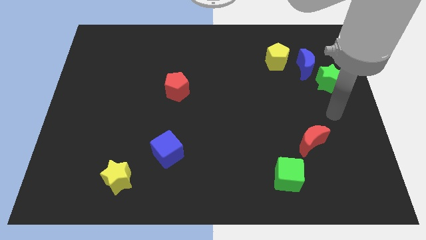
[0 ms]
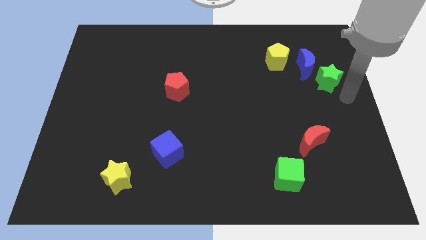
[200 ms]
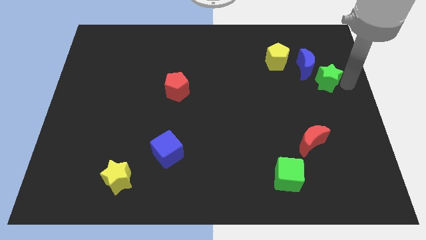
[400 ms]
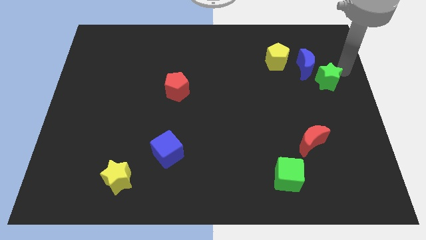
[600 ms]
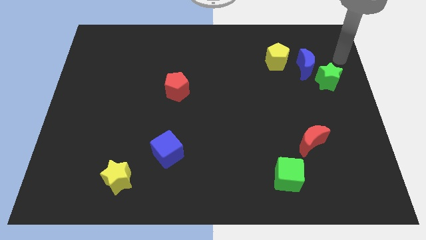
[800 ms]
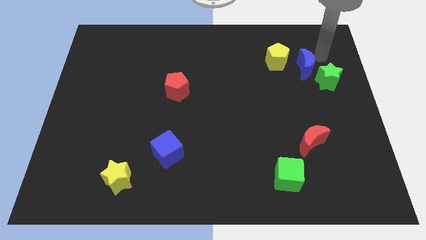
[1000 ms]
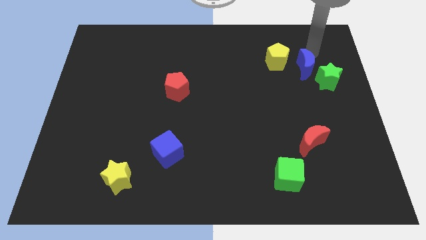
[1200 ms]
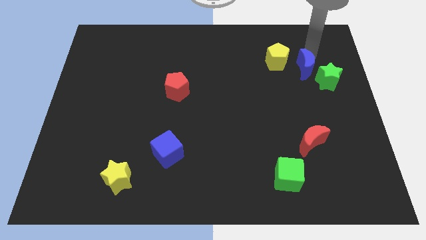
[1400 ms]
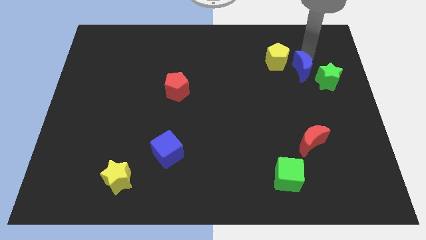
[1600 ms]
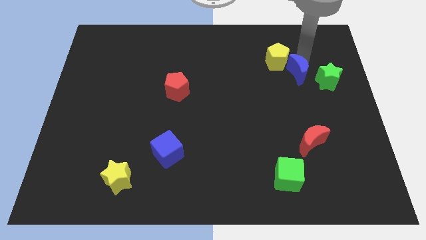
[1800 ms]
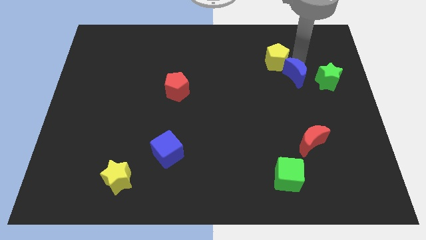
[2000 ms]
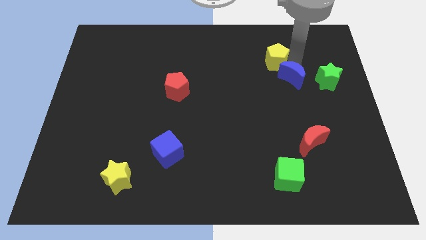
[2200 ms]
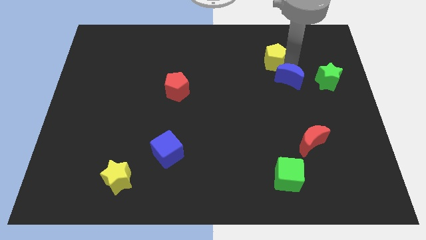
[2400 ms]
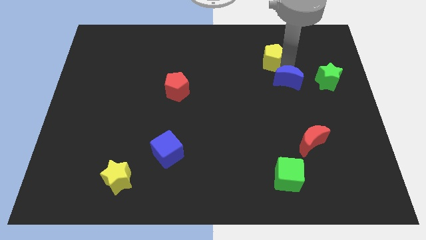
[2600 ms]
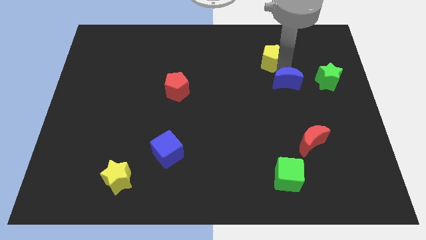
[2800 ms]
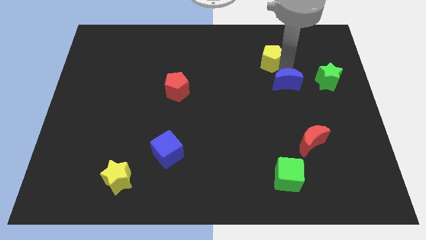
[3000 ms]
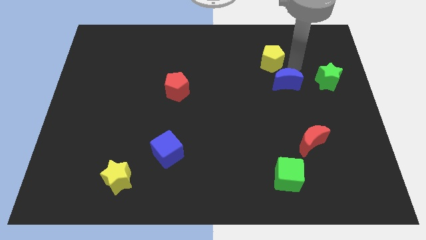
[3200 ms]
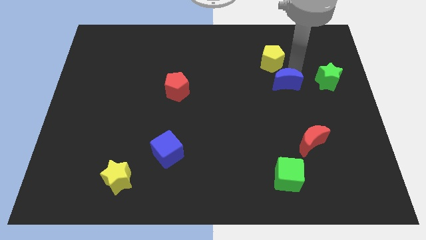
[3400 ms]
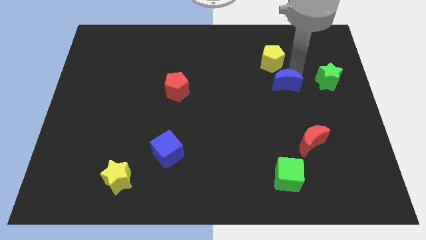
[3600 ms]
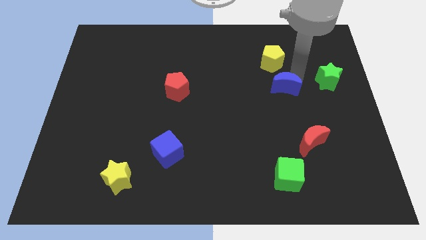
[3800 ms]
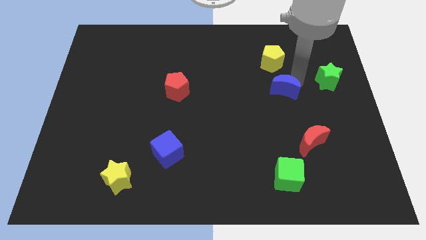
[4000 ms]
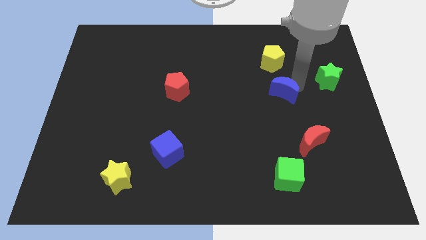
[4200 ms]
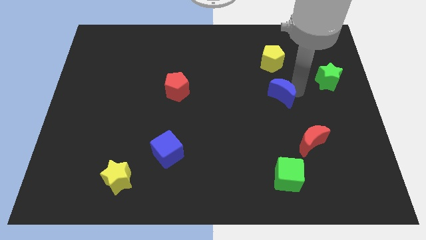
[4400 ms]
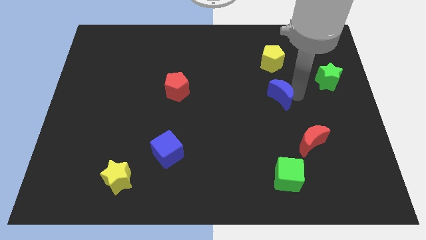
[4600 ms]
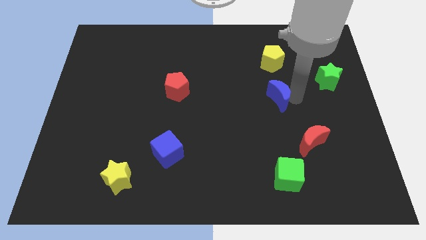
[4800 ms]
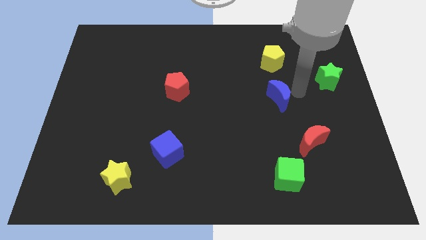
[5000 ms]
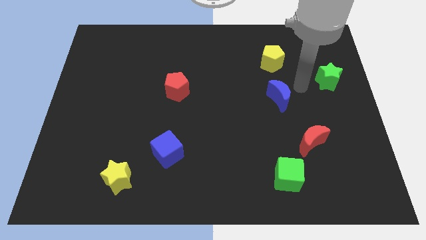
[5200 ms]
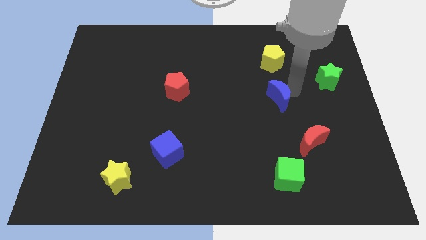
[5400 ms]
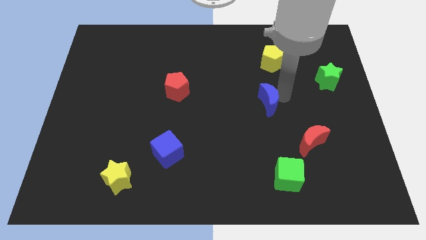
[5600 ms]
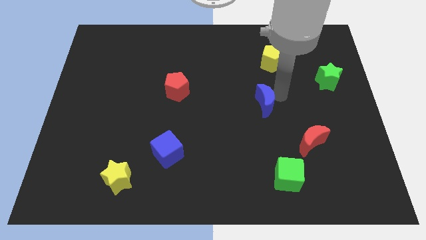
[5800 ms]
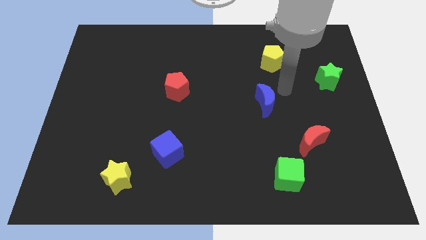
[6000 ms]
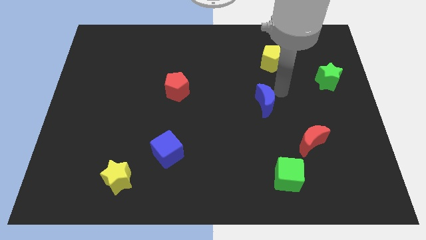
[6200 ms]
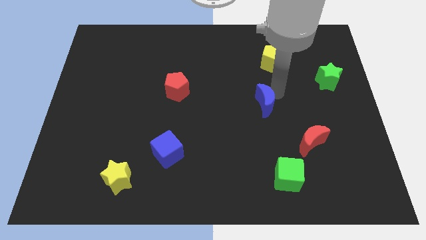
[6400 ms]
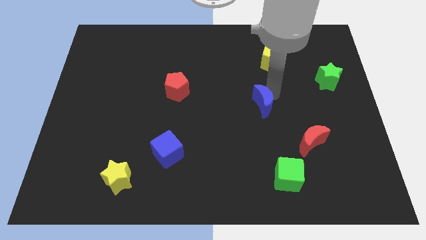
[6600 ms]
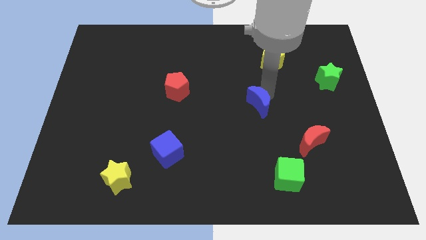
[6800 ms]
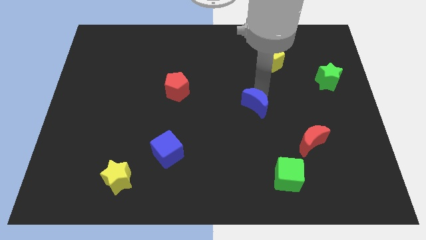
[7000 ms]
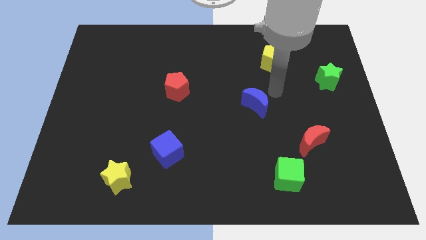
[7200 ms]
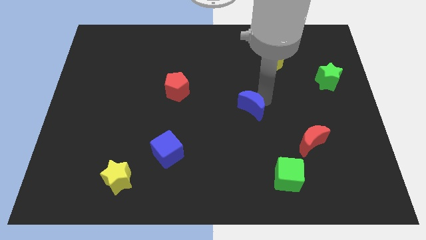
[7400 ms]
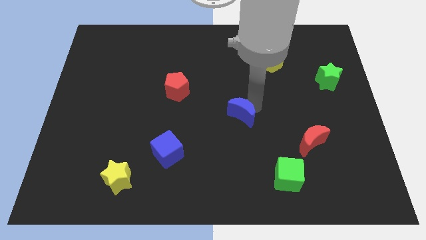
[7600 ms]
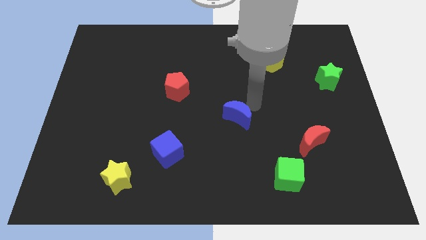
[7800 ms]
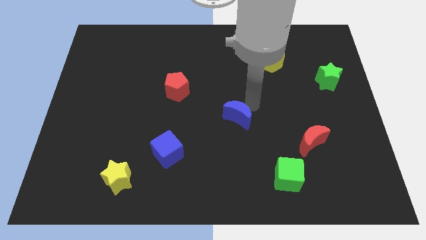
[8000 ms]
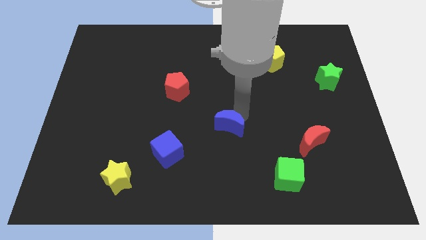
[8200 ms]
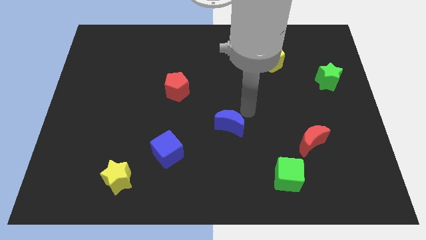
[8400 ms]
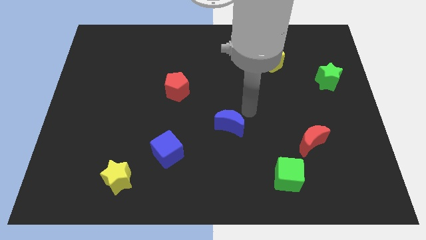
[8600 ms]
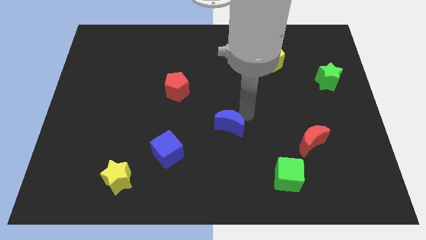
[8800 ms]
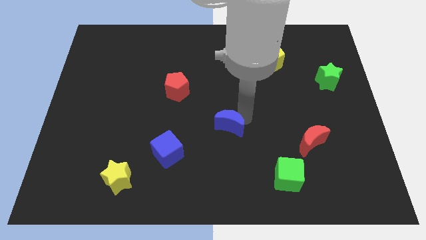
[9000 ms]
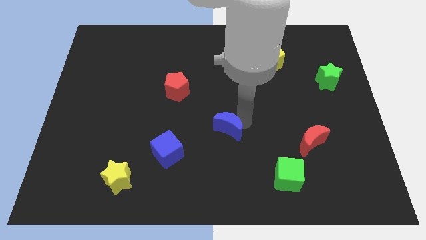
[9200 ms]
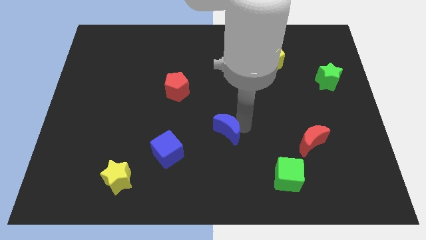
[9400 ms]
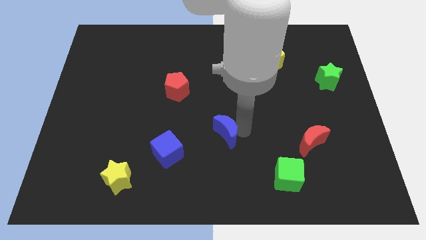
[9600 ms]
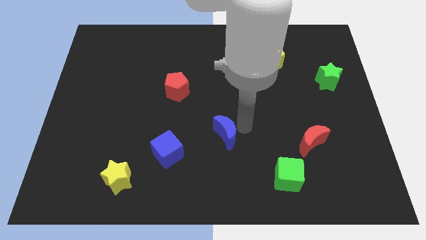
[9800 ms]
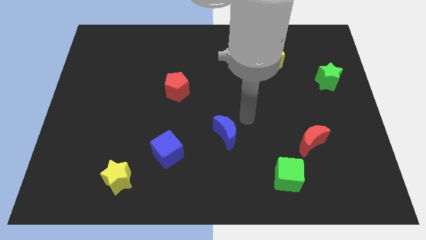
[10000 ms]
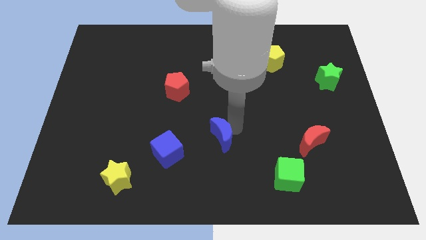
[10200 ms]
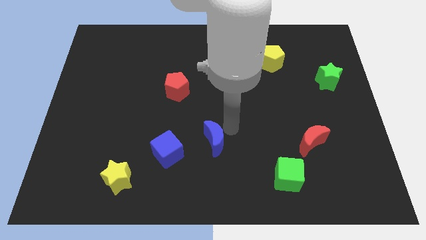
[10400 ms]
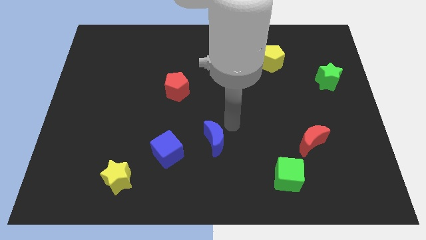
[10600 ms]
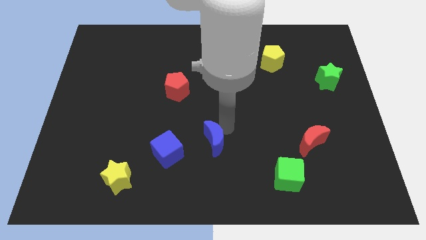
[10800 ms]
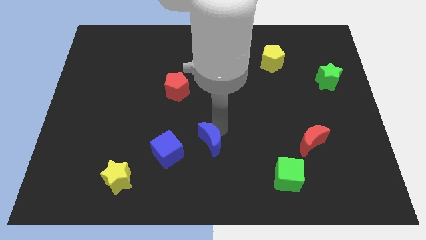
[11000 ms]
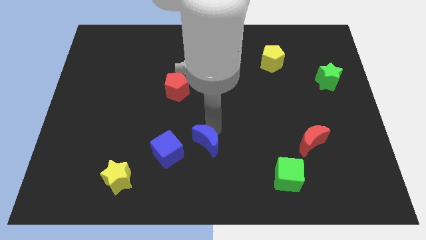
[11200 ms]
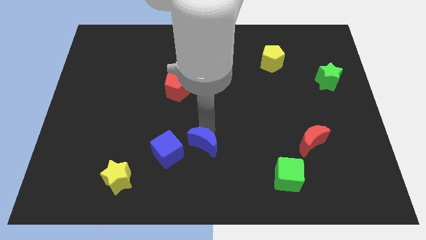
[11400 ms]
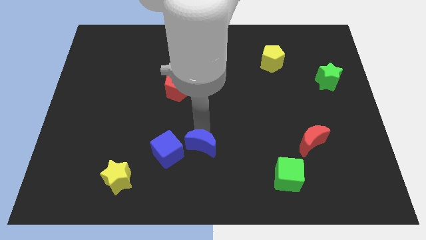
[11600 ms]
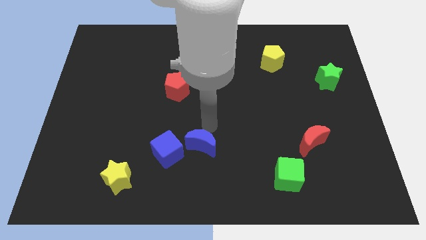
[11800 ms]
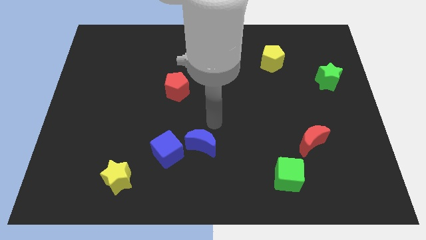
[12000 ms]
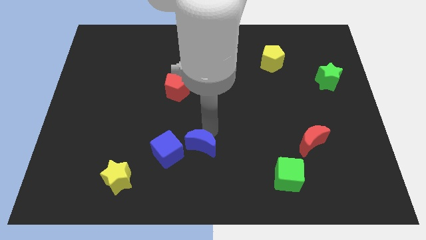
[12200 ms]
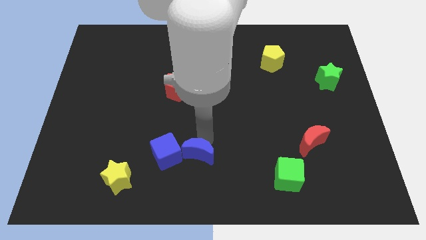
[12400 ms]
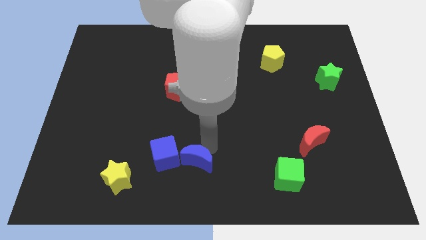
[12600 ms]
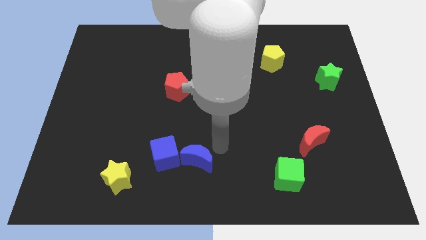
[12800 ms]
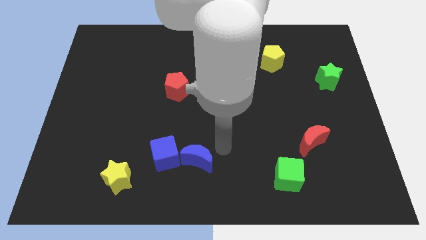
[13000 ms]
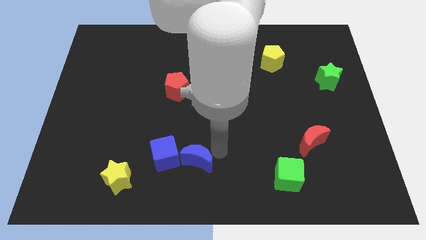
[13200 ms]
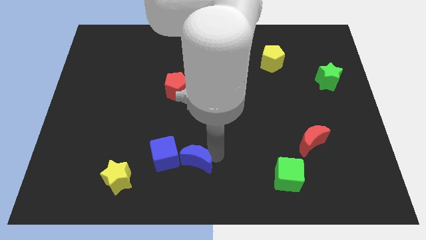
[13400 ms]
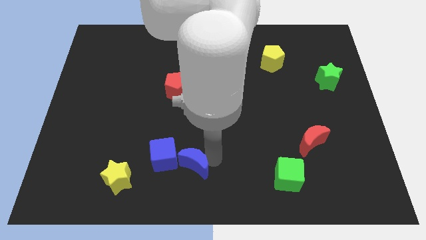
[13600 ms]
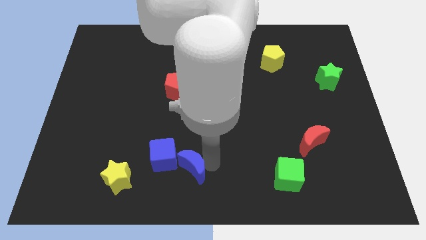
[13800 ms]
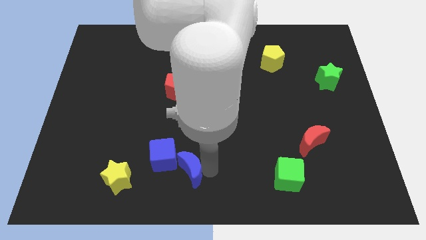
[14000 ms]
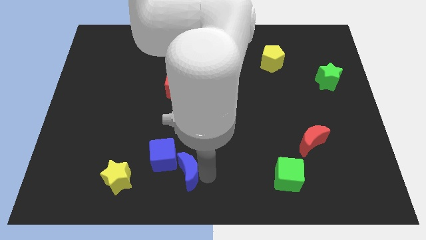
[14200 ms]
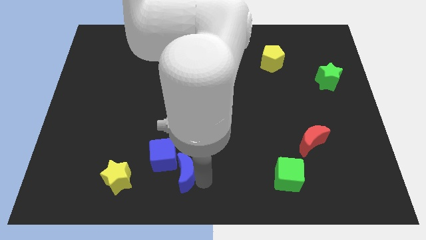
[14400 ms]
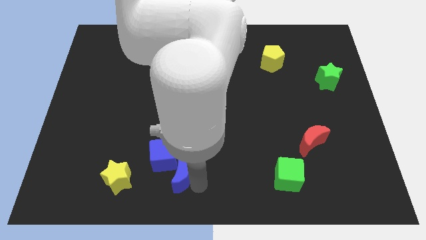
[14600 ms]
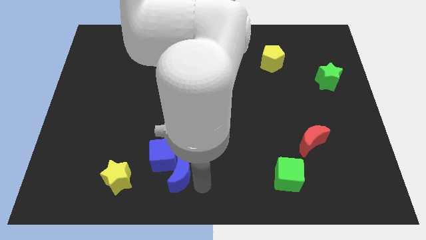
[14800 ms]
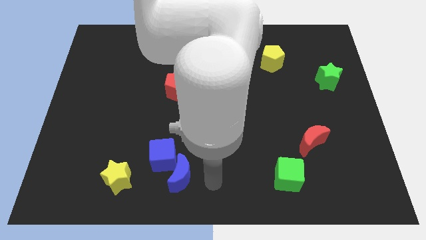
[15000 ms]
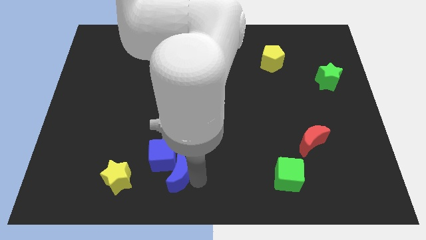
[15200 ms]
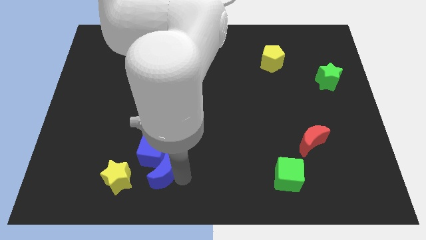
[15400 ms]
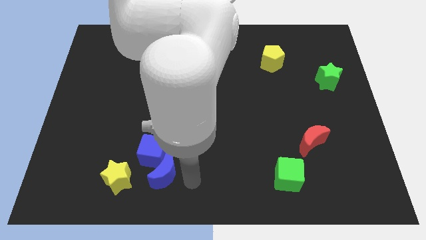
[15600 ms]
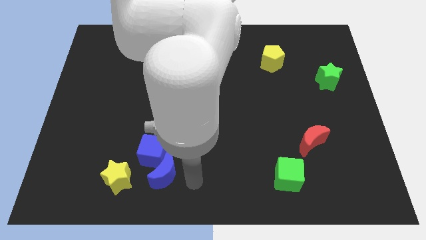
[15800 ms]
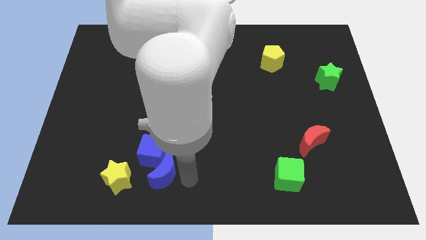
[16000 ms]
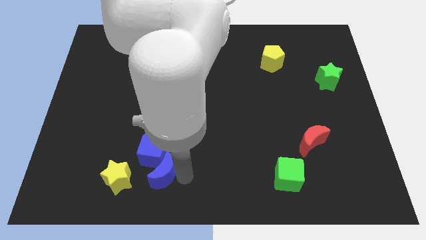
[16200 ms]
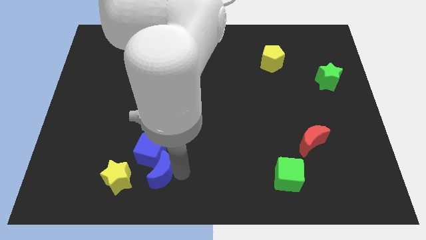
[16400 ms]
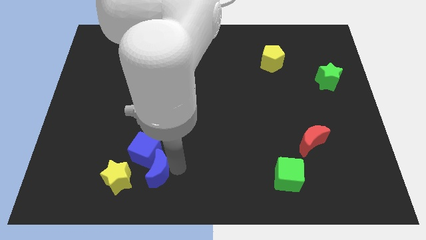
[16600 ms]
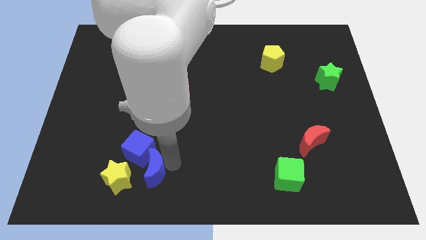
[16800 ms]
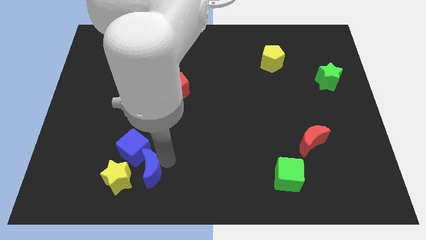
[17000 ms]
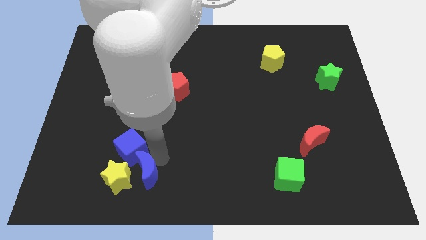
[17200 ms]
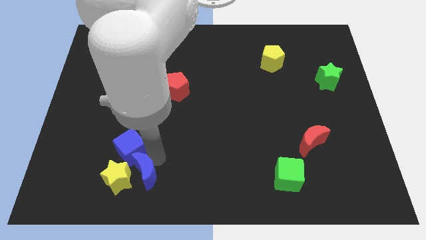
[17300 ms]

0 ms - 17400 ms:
slide the blue moon next to the yellow star
